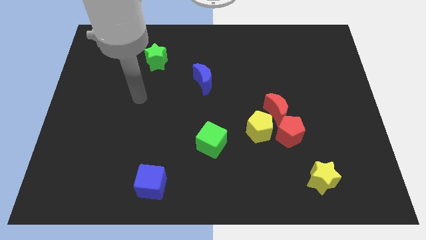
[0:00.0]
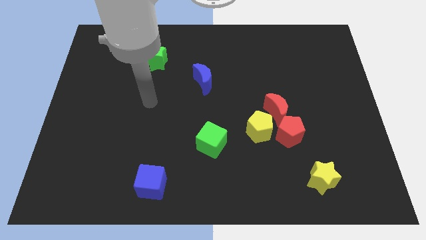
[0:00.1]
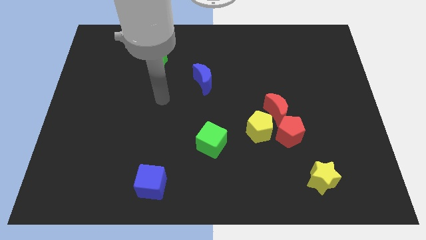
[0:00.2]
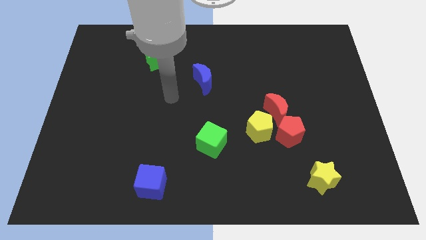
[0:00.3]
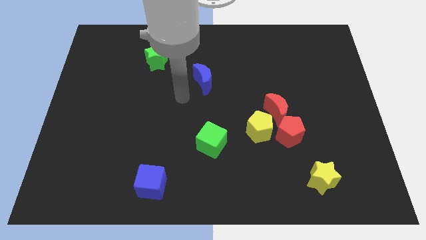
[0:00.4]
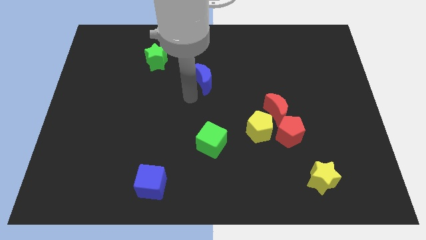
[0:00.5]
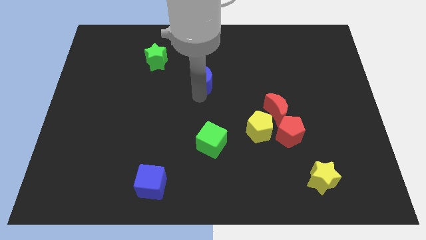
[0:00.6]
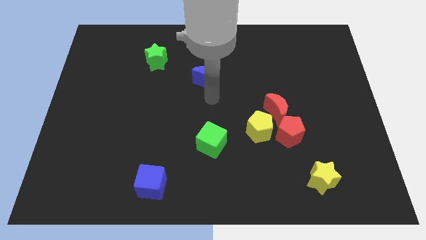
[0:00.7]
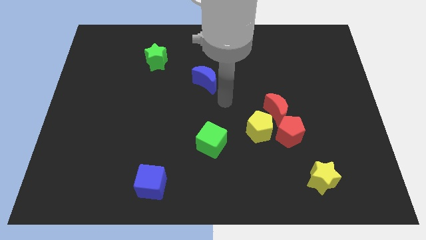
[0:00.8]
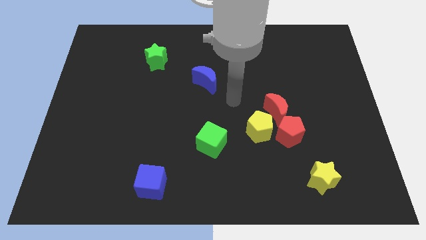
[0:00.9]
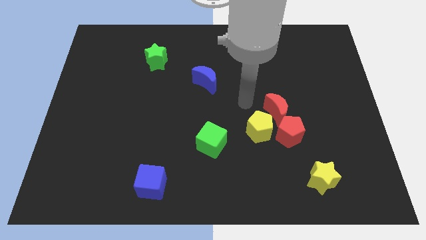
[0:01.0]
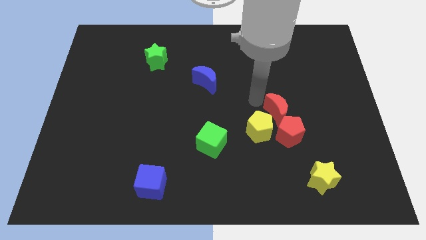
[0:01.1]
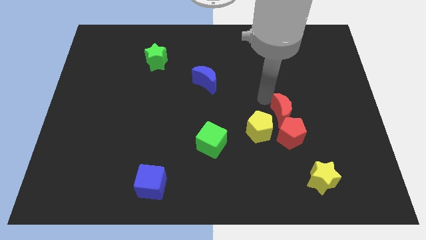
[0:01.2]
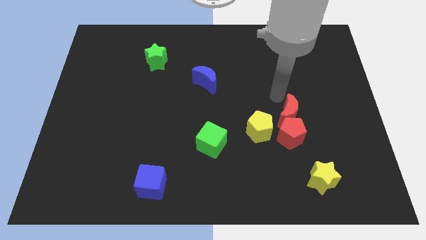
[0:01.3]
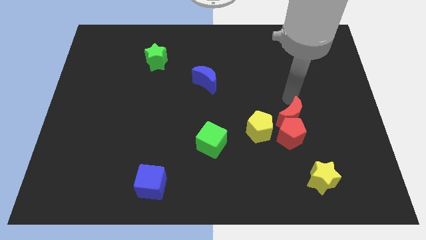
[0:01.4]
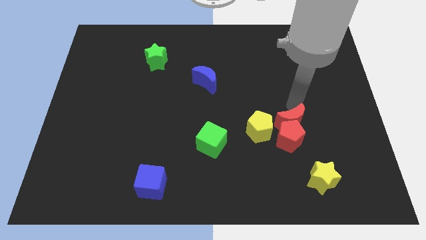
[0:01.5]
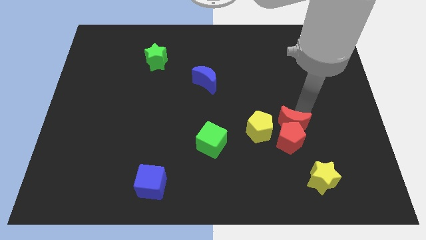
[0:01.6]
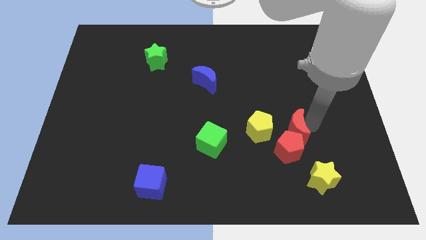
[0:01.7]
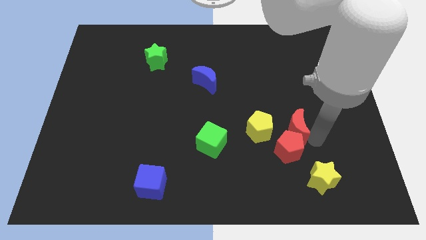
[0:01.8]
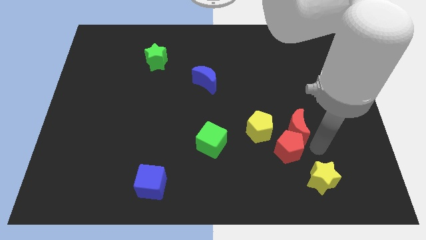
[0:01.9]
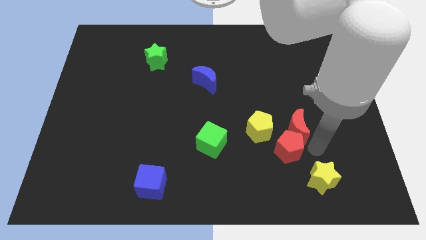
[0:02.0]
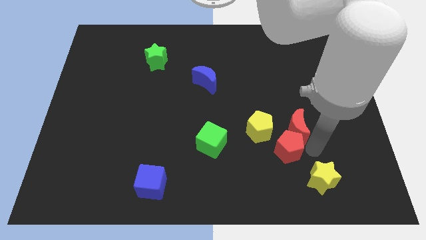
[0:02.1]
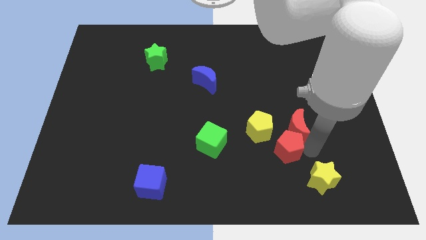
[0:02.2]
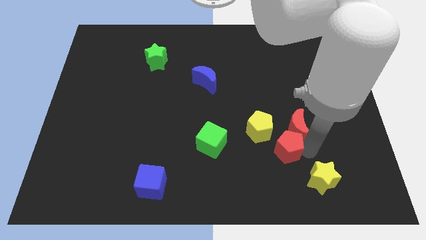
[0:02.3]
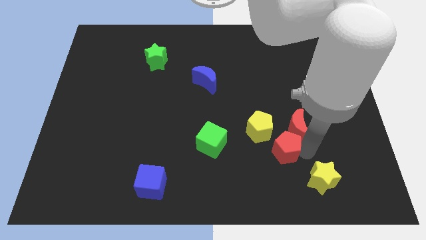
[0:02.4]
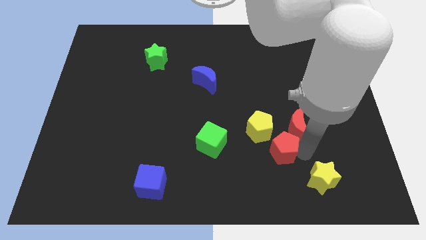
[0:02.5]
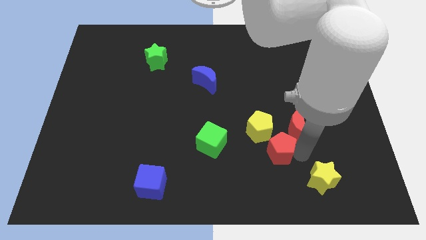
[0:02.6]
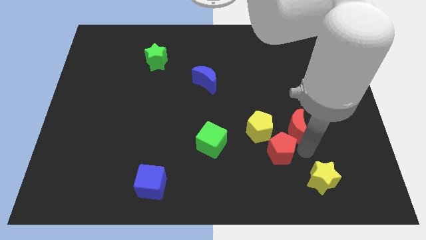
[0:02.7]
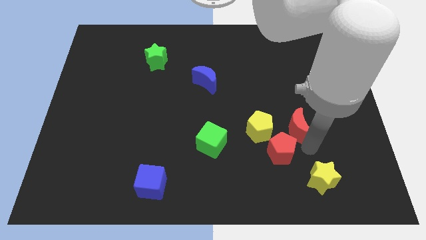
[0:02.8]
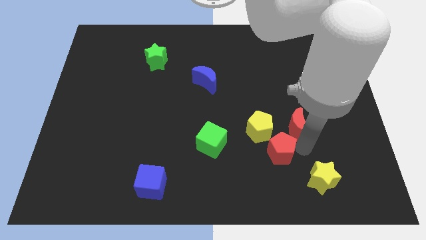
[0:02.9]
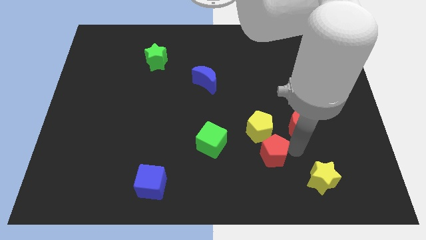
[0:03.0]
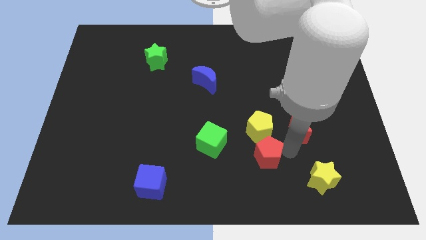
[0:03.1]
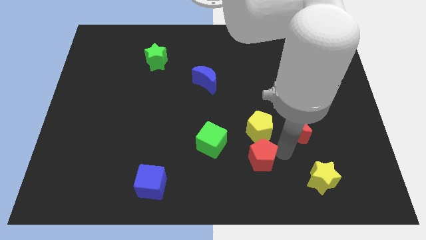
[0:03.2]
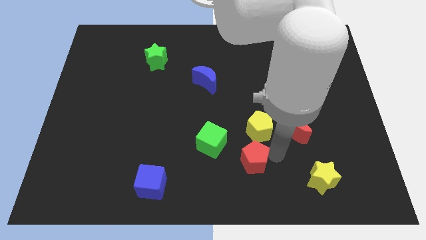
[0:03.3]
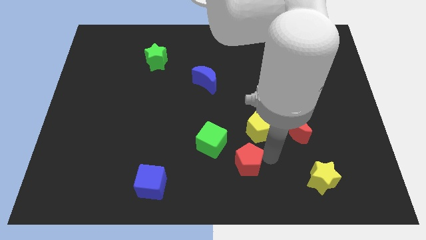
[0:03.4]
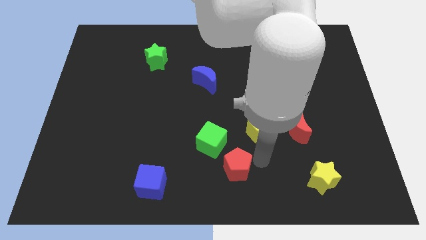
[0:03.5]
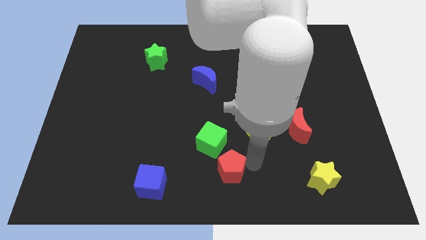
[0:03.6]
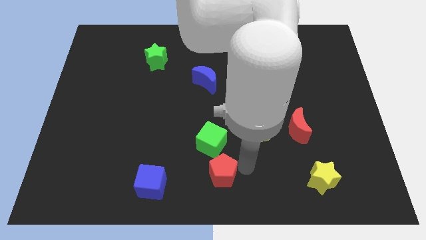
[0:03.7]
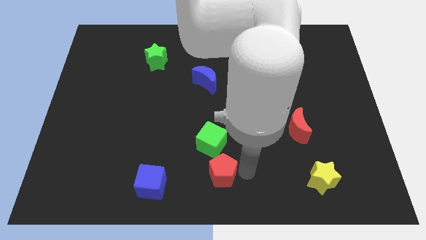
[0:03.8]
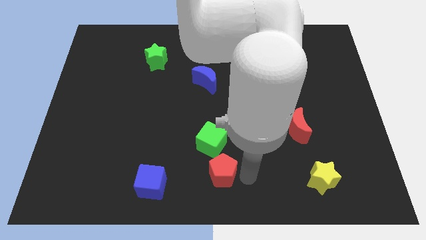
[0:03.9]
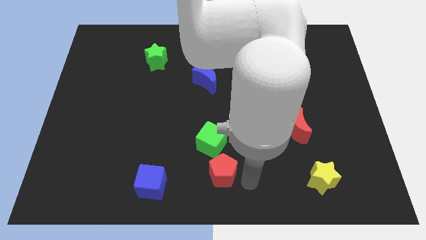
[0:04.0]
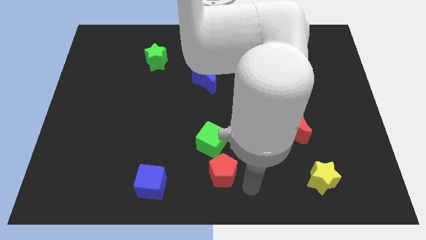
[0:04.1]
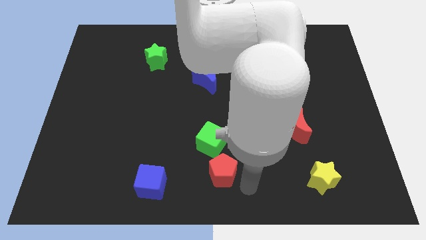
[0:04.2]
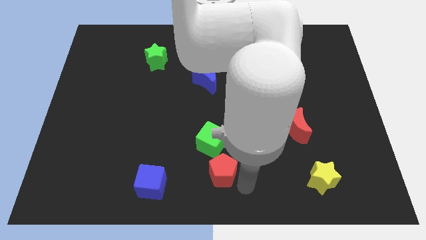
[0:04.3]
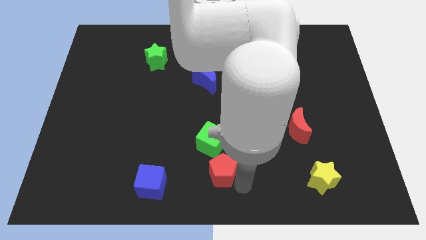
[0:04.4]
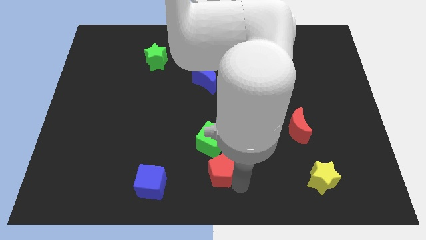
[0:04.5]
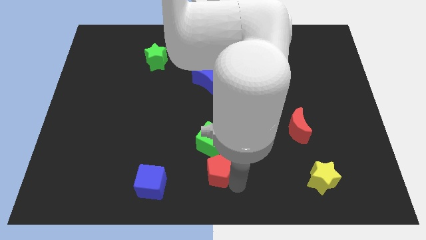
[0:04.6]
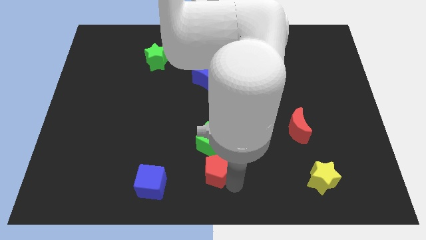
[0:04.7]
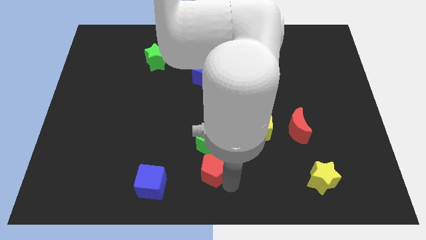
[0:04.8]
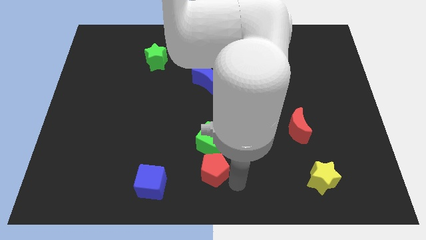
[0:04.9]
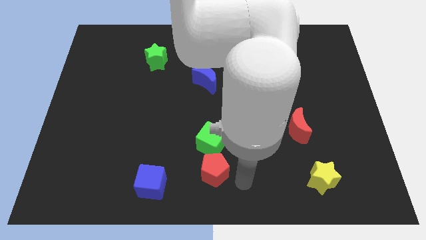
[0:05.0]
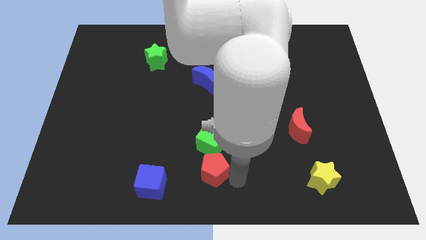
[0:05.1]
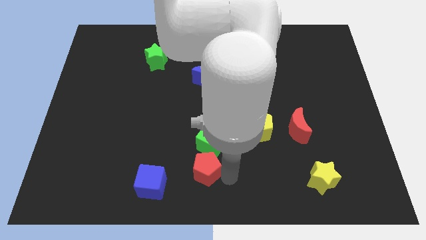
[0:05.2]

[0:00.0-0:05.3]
slide the red pentagon to the bottom left side of the green cube

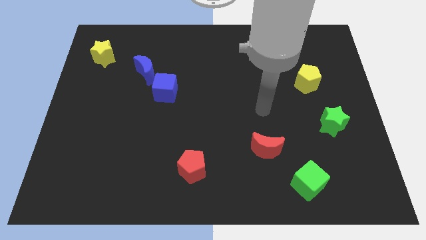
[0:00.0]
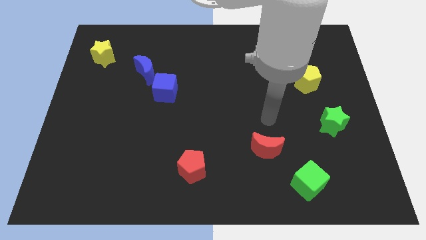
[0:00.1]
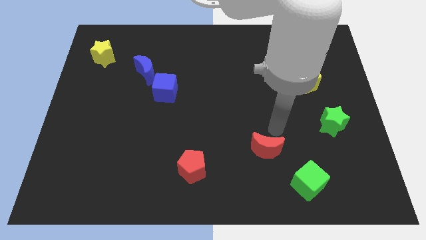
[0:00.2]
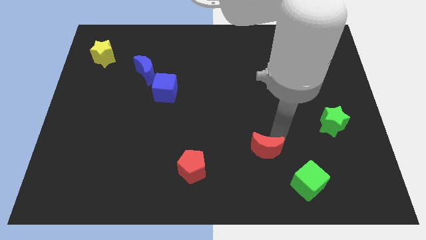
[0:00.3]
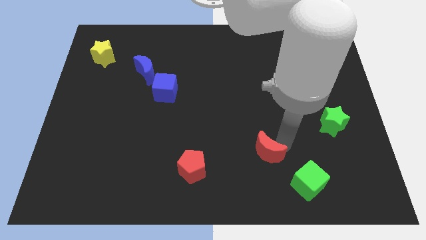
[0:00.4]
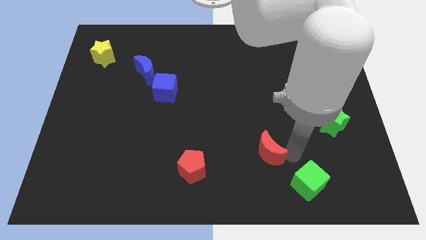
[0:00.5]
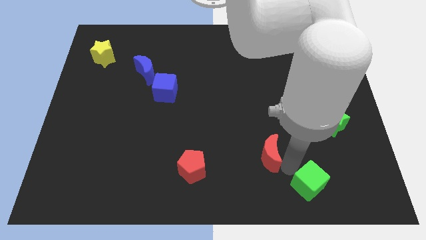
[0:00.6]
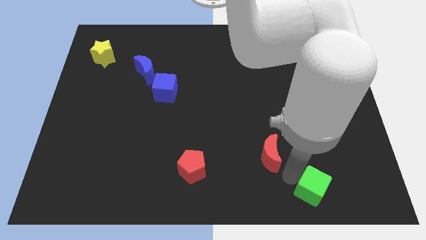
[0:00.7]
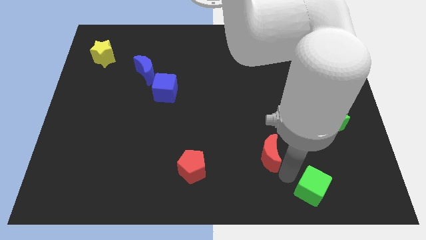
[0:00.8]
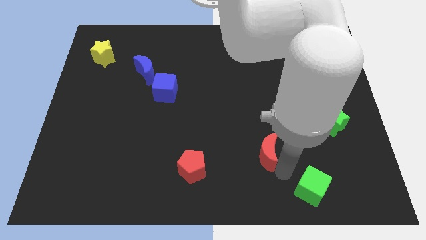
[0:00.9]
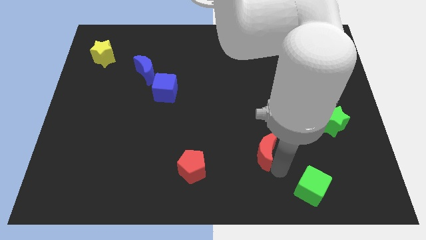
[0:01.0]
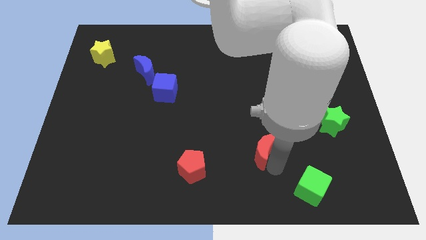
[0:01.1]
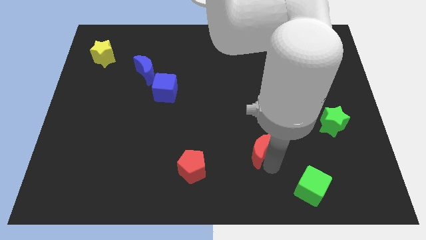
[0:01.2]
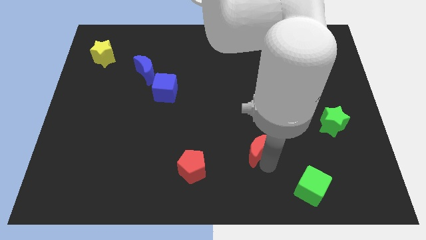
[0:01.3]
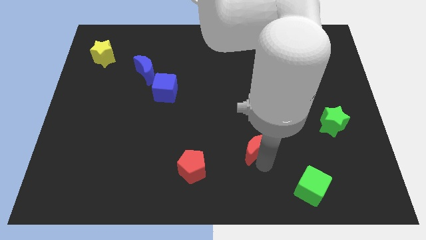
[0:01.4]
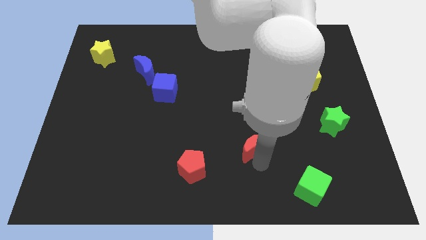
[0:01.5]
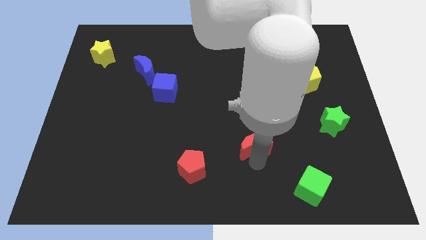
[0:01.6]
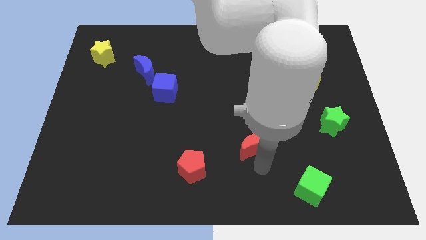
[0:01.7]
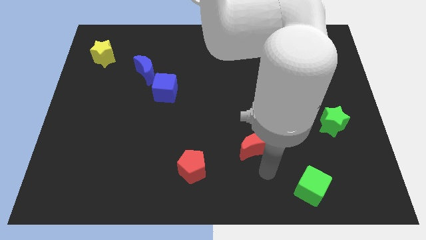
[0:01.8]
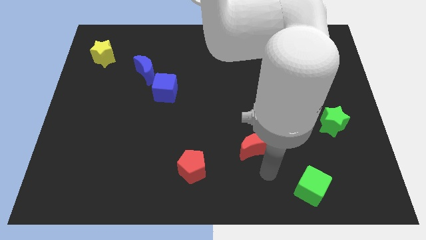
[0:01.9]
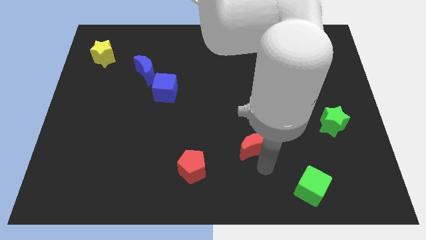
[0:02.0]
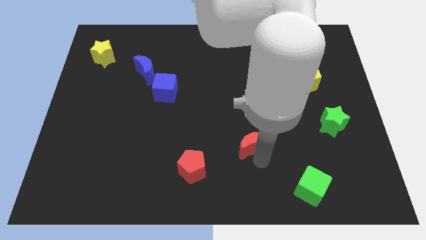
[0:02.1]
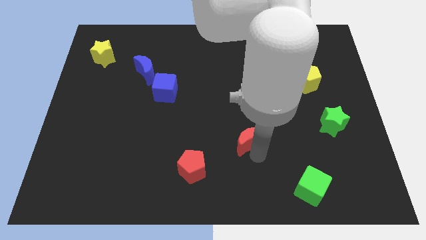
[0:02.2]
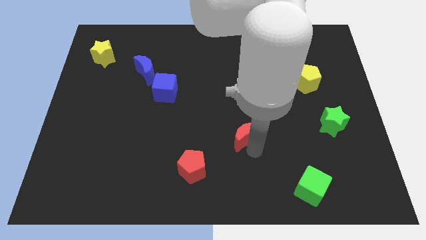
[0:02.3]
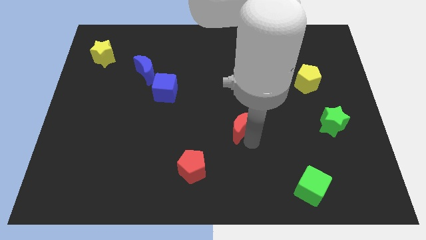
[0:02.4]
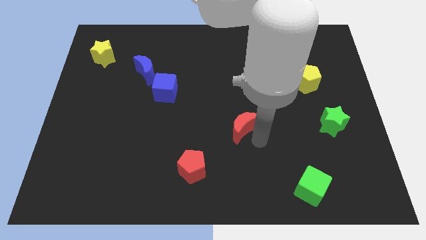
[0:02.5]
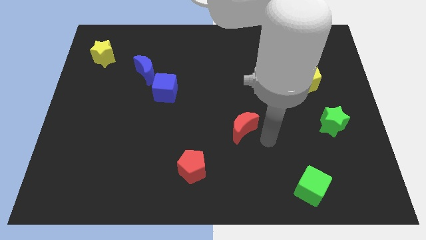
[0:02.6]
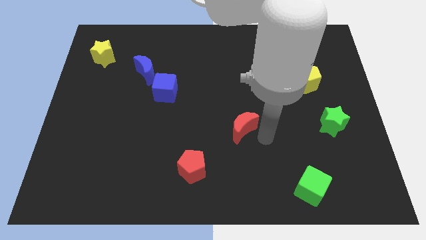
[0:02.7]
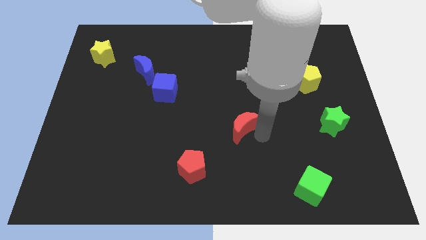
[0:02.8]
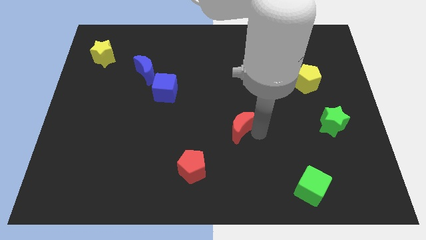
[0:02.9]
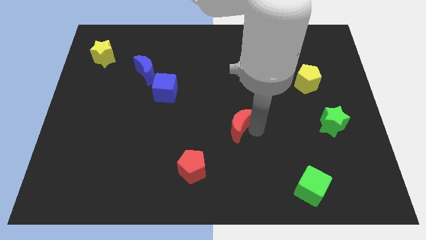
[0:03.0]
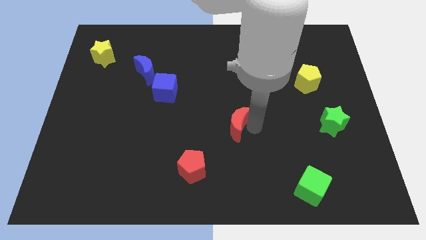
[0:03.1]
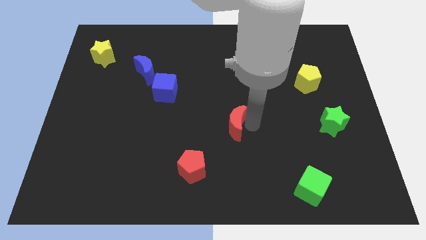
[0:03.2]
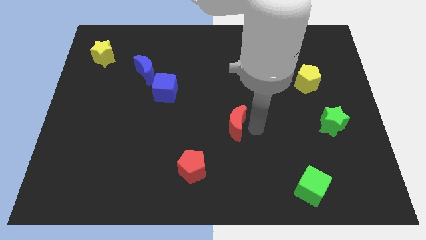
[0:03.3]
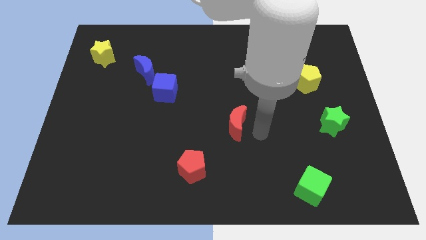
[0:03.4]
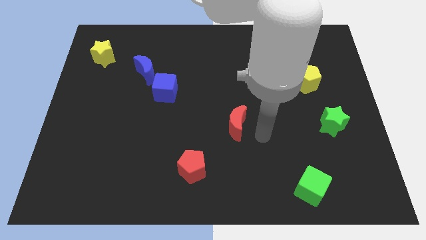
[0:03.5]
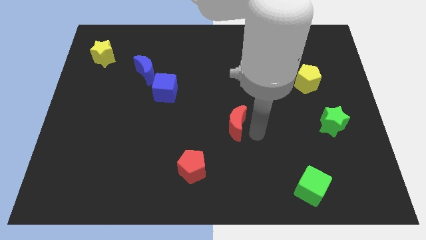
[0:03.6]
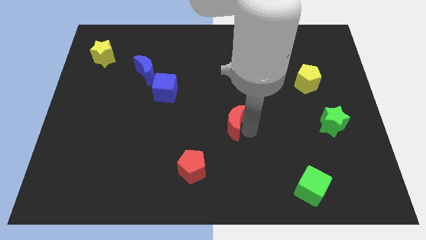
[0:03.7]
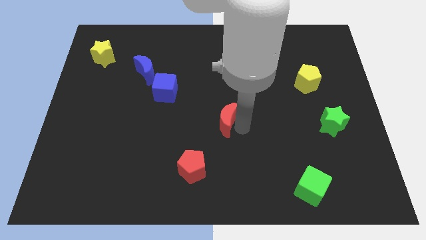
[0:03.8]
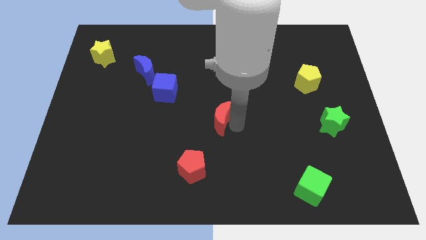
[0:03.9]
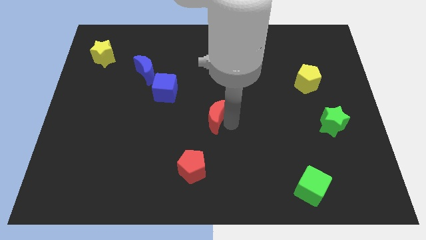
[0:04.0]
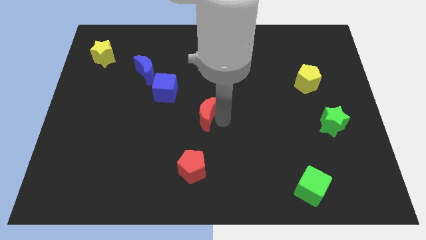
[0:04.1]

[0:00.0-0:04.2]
push the red moon diagonally down and to the right of the blue cube
